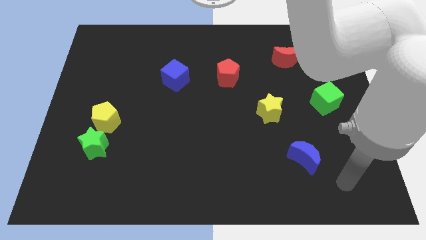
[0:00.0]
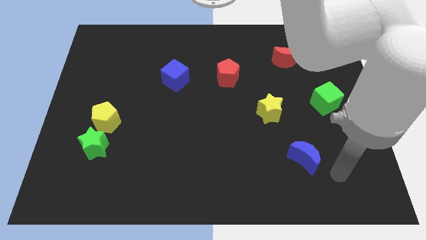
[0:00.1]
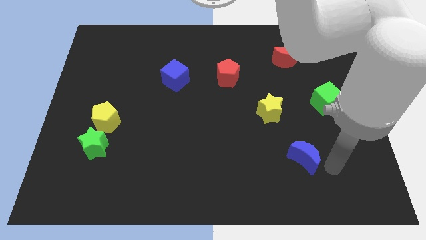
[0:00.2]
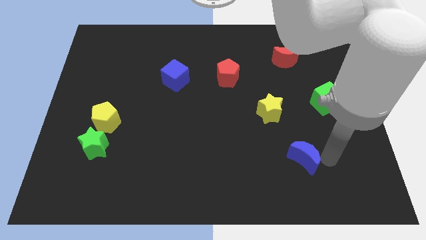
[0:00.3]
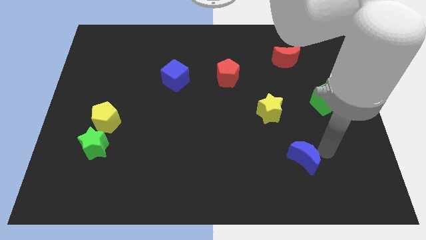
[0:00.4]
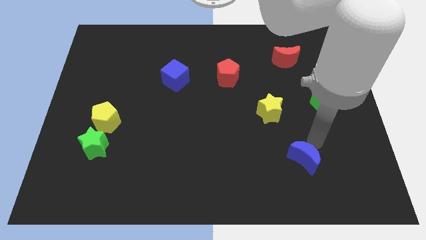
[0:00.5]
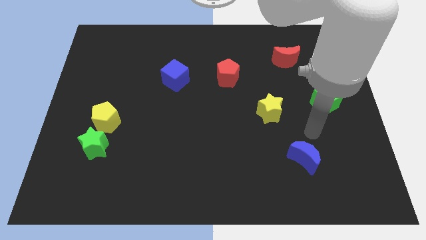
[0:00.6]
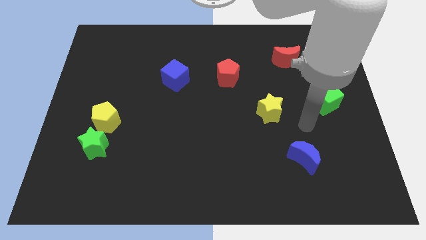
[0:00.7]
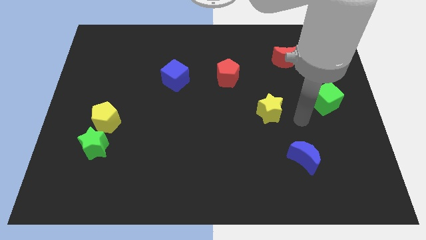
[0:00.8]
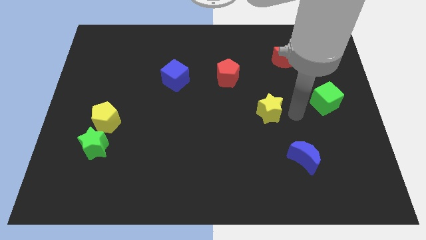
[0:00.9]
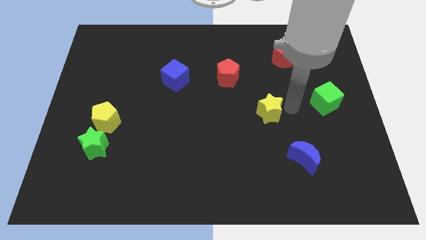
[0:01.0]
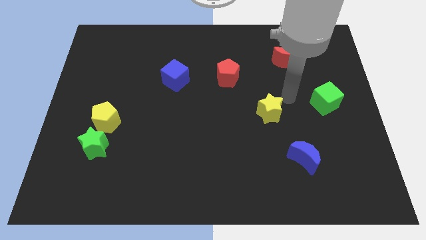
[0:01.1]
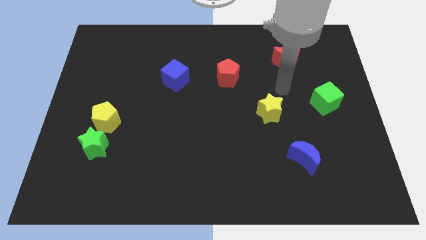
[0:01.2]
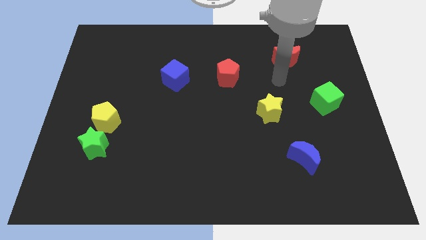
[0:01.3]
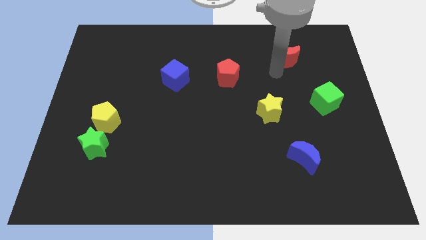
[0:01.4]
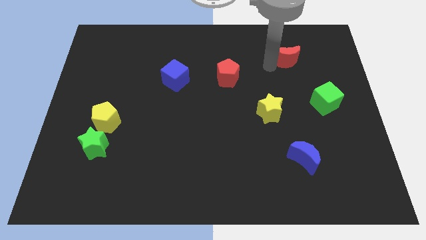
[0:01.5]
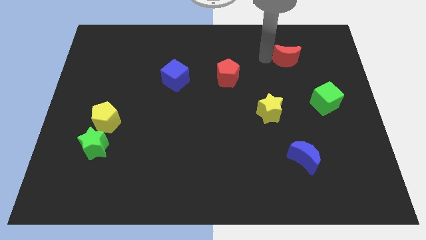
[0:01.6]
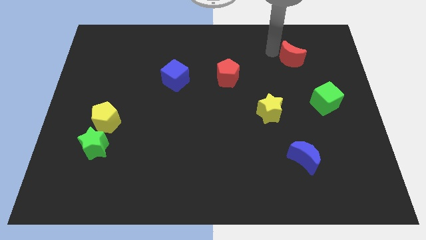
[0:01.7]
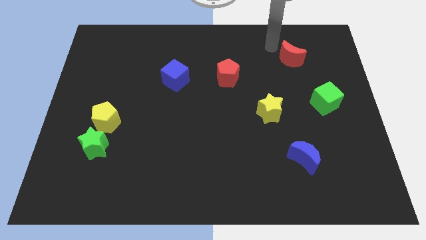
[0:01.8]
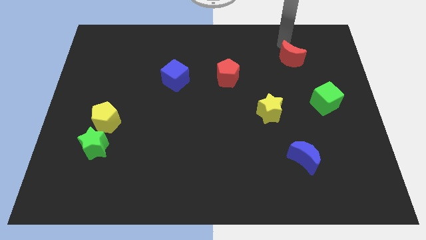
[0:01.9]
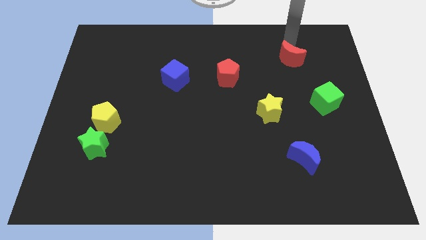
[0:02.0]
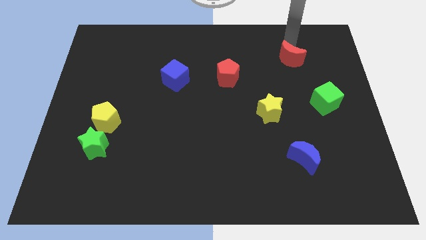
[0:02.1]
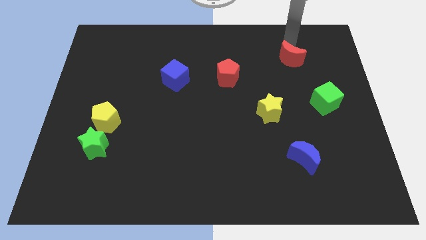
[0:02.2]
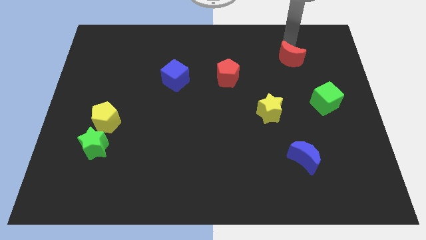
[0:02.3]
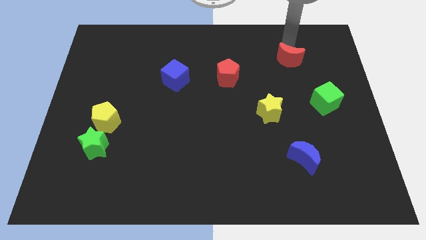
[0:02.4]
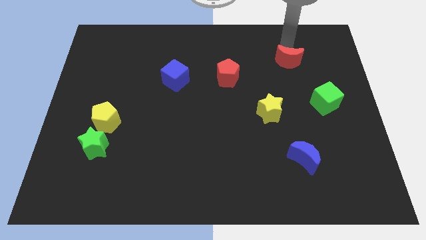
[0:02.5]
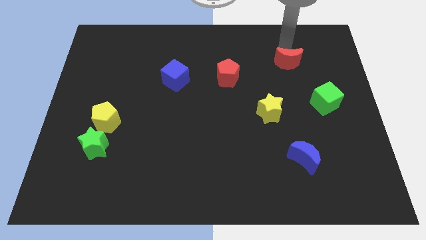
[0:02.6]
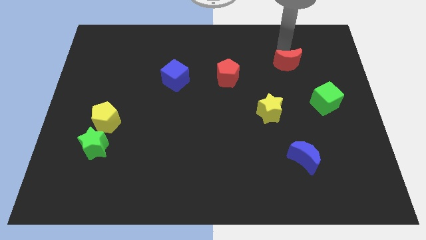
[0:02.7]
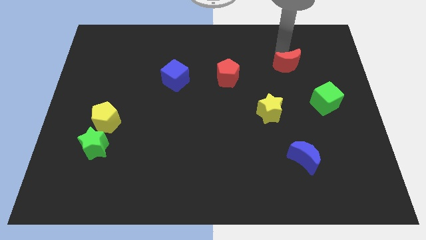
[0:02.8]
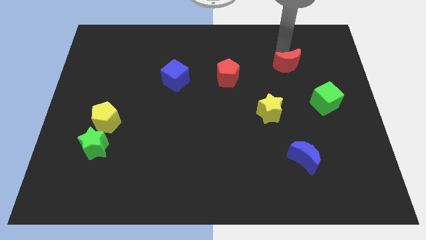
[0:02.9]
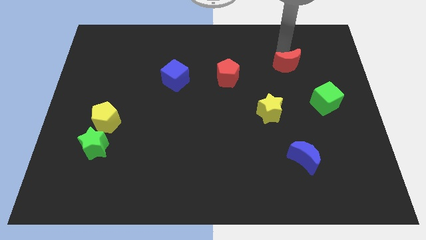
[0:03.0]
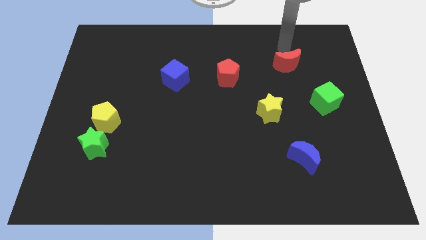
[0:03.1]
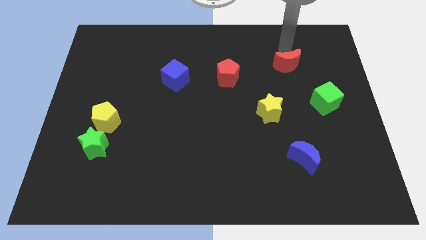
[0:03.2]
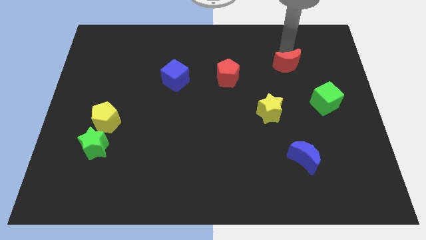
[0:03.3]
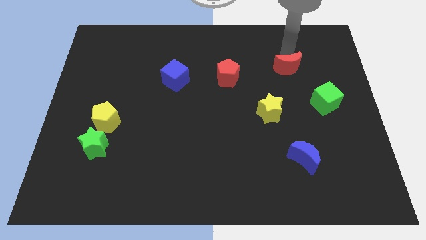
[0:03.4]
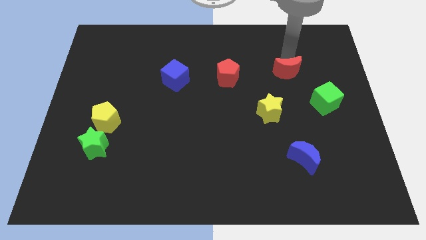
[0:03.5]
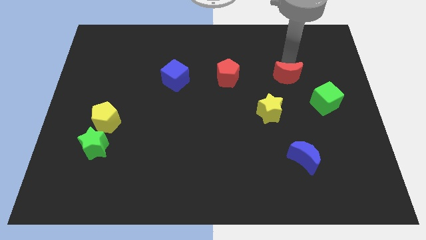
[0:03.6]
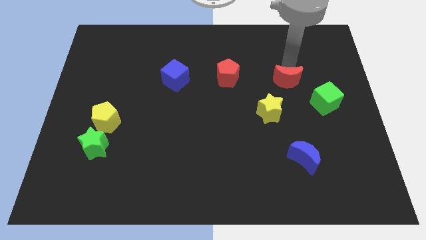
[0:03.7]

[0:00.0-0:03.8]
move the red moon a bit down

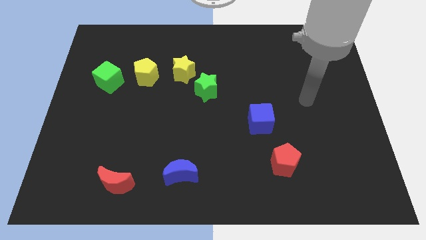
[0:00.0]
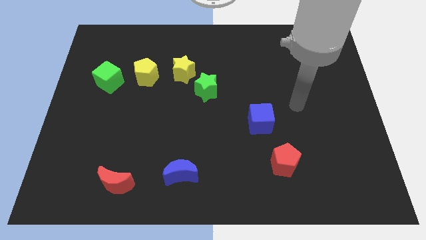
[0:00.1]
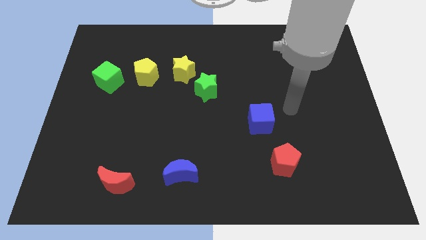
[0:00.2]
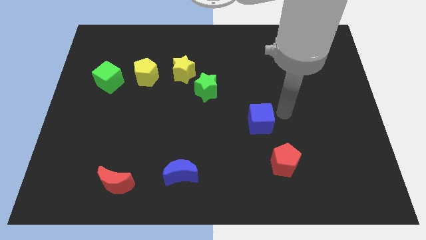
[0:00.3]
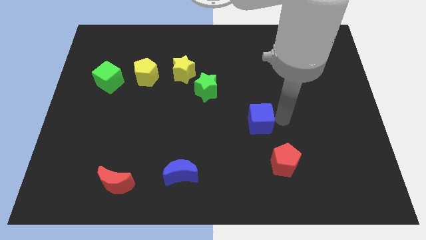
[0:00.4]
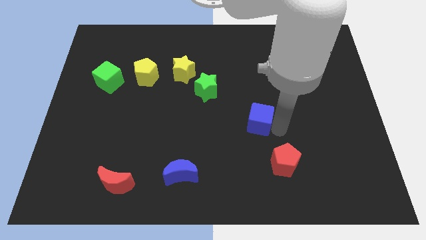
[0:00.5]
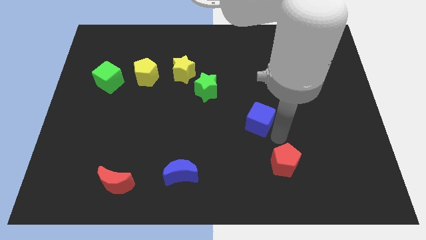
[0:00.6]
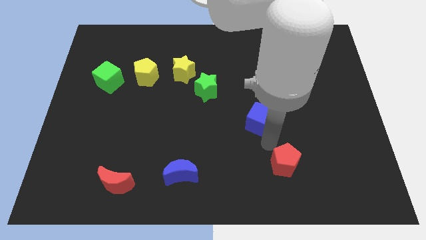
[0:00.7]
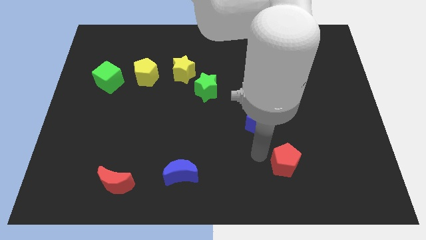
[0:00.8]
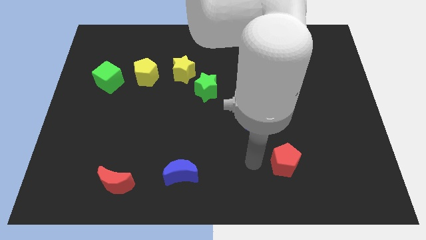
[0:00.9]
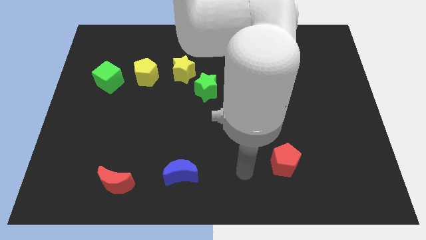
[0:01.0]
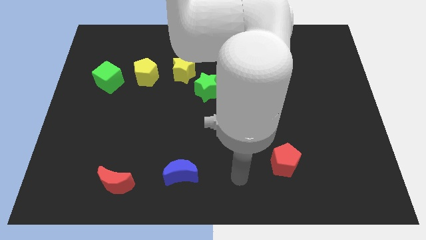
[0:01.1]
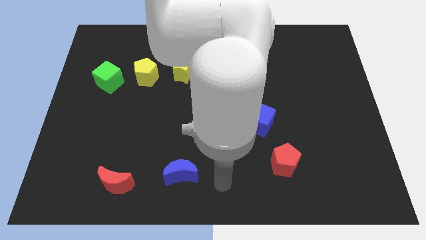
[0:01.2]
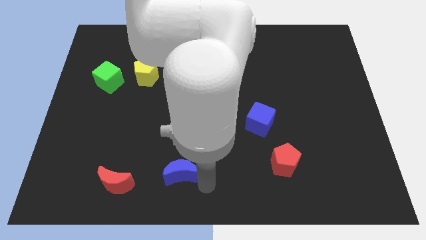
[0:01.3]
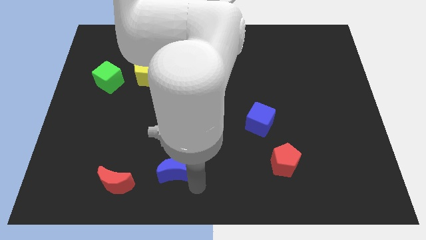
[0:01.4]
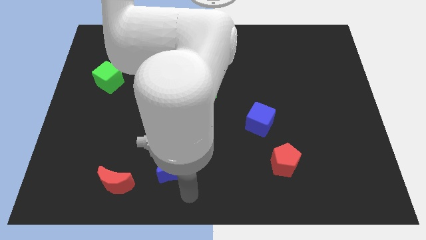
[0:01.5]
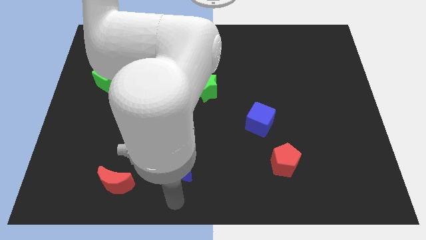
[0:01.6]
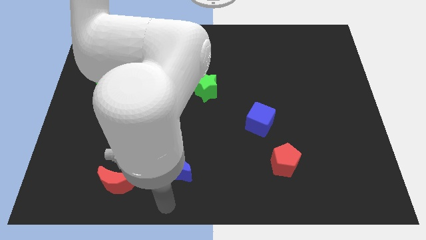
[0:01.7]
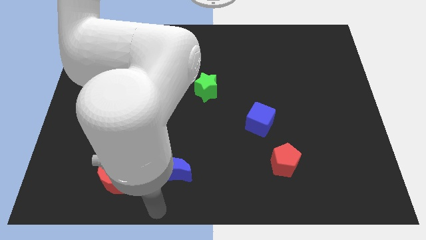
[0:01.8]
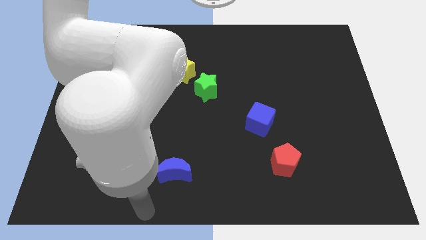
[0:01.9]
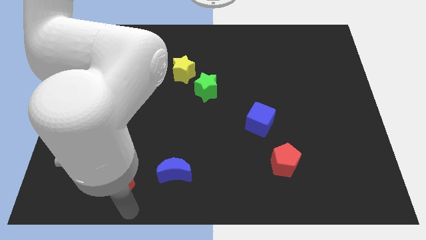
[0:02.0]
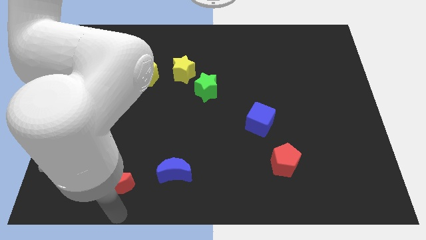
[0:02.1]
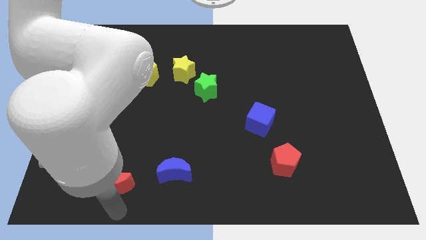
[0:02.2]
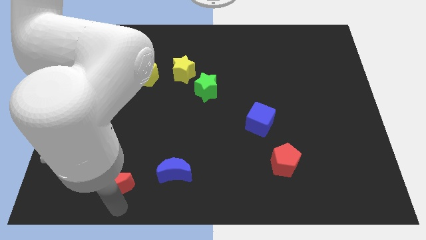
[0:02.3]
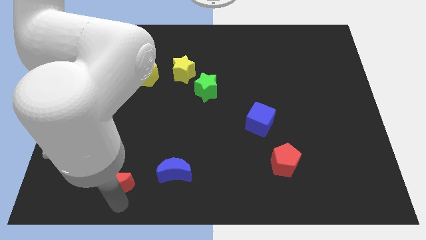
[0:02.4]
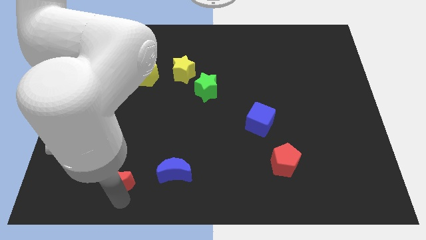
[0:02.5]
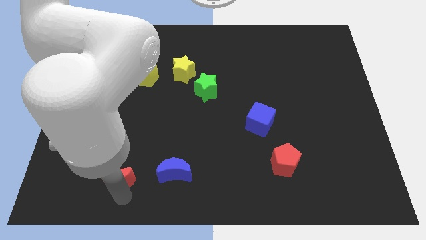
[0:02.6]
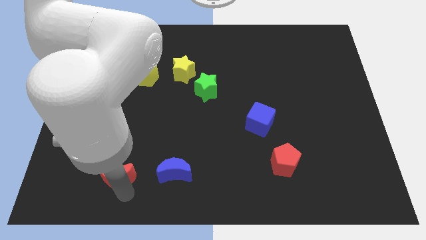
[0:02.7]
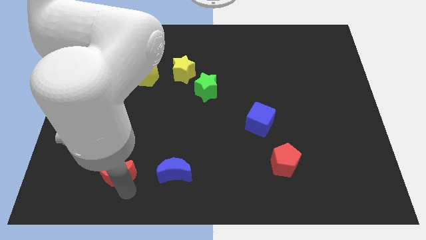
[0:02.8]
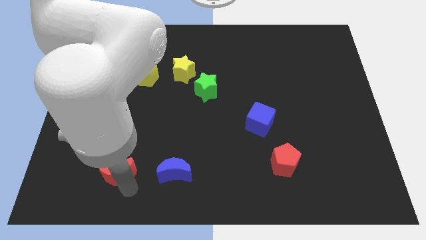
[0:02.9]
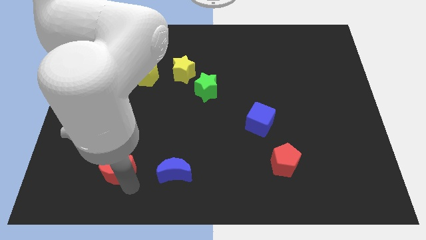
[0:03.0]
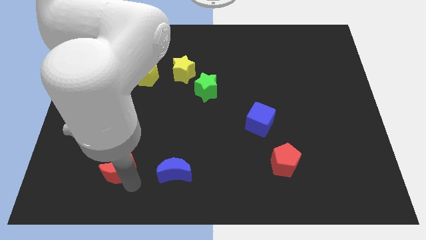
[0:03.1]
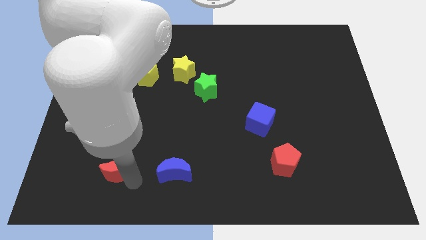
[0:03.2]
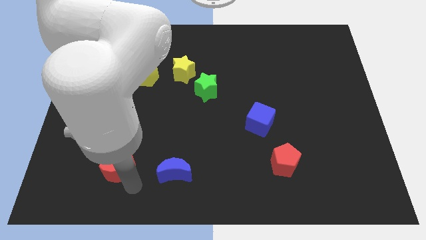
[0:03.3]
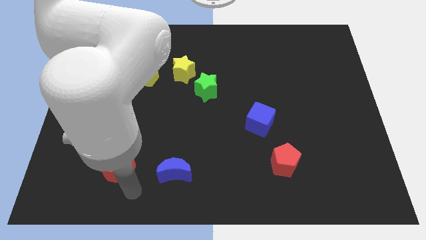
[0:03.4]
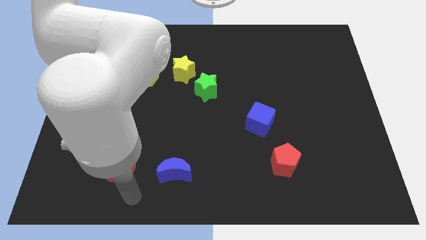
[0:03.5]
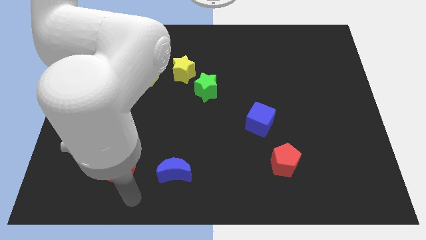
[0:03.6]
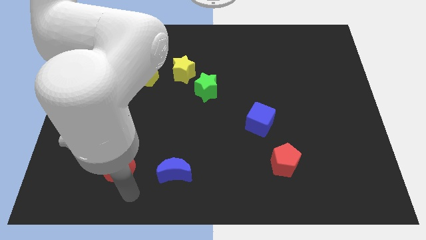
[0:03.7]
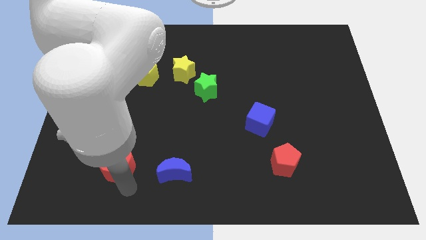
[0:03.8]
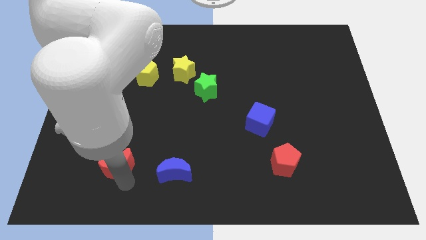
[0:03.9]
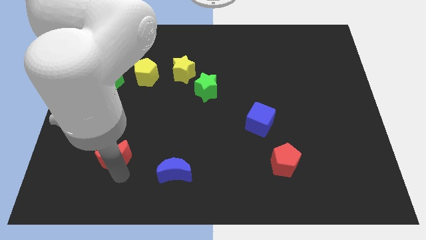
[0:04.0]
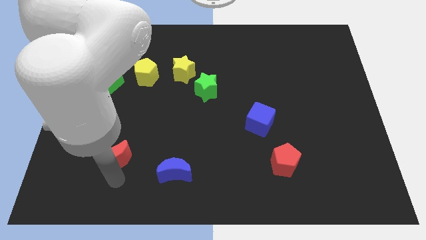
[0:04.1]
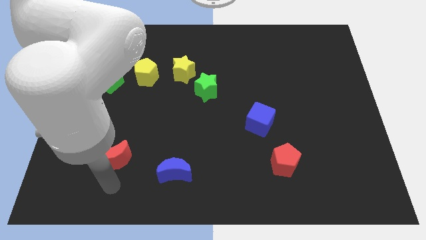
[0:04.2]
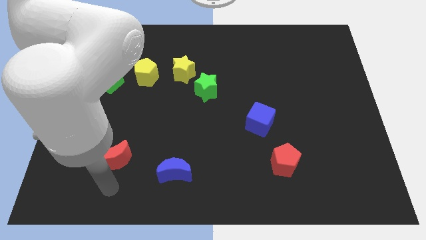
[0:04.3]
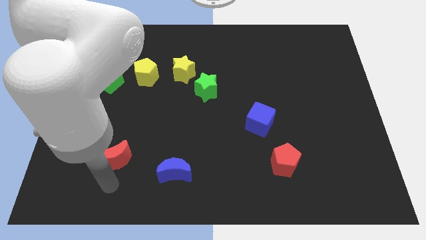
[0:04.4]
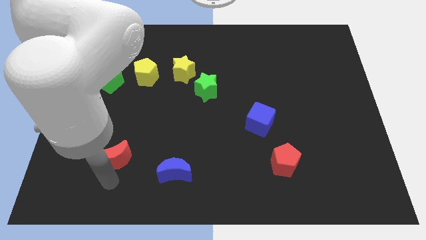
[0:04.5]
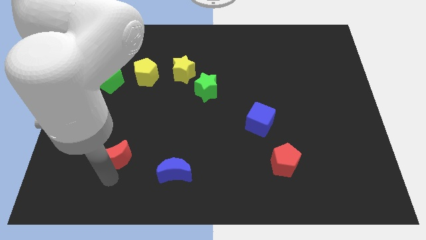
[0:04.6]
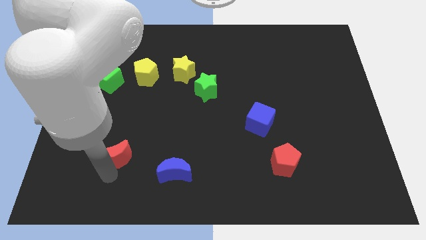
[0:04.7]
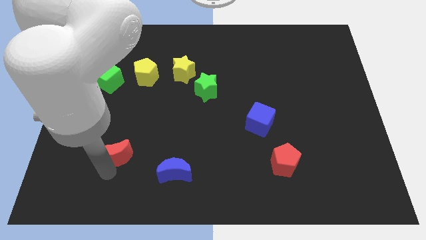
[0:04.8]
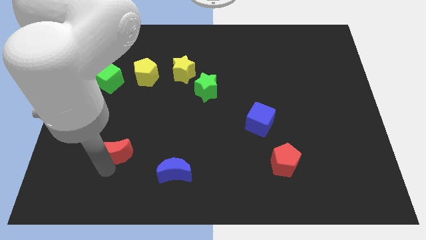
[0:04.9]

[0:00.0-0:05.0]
slightly move the red moon up
